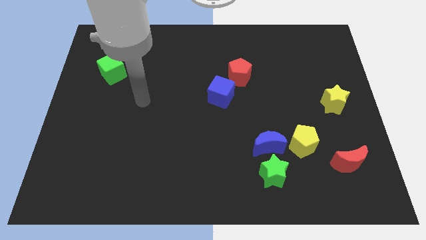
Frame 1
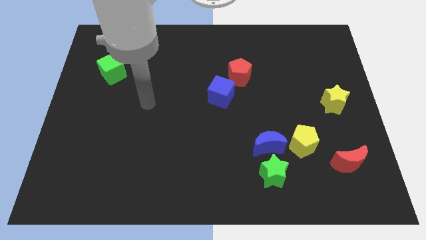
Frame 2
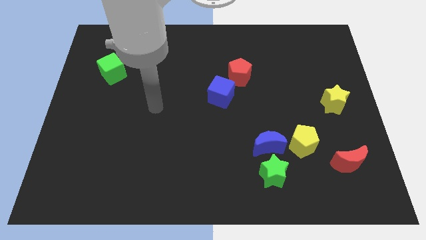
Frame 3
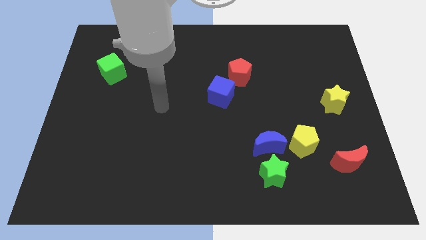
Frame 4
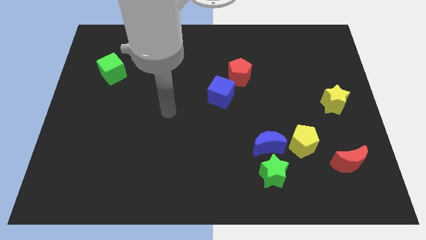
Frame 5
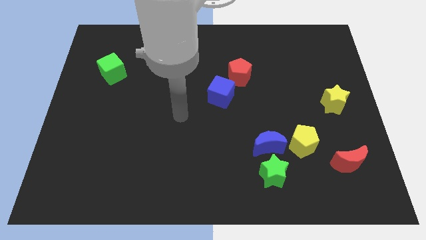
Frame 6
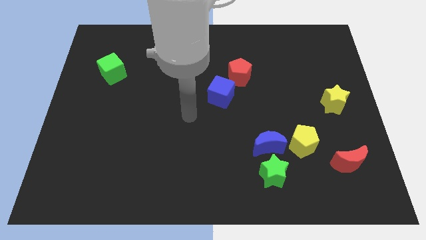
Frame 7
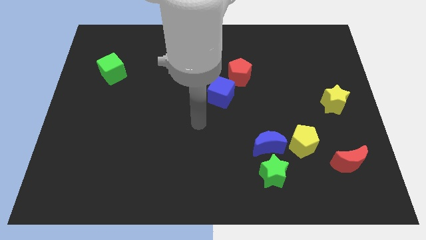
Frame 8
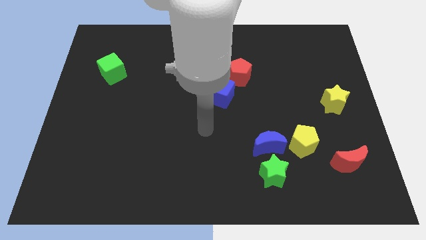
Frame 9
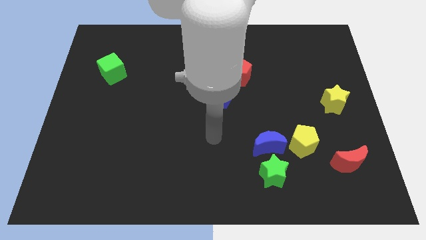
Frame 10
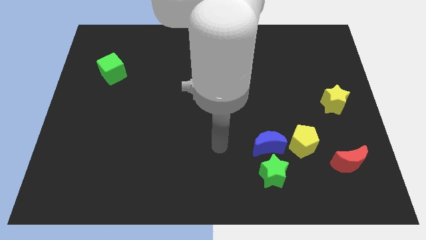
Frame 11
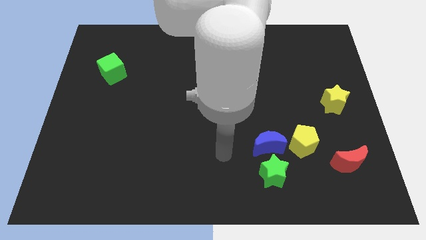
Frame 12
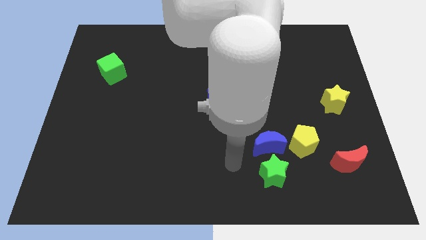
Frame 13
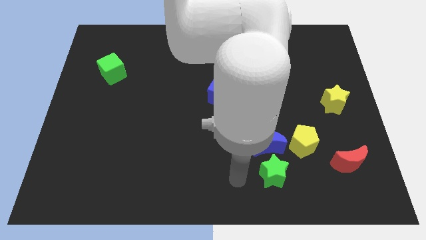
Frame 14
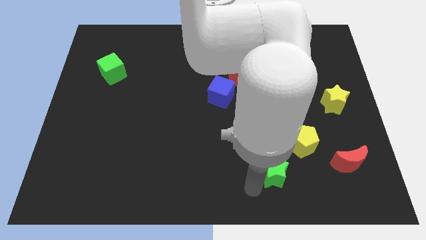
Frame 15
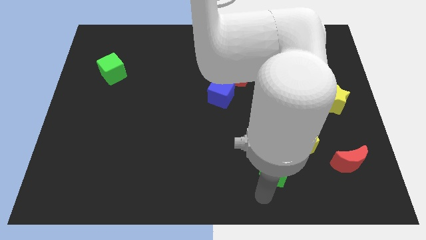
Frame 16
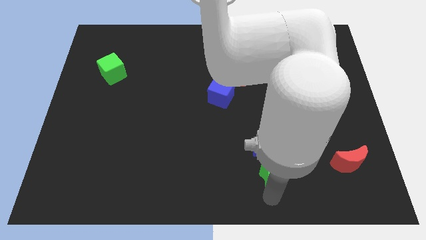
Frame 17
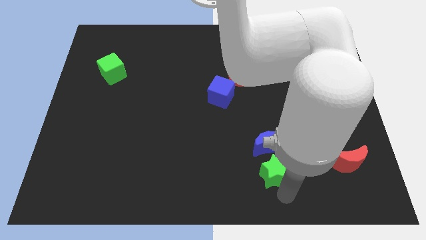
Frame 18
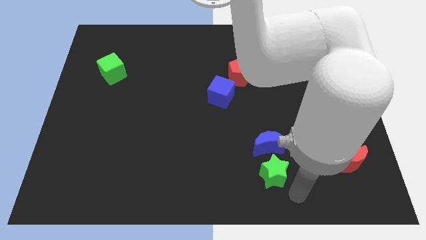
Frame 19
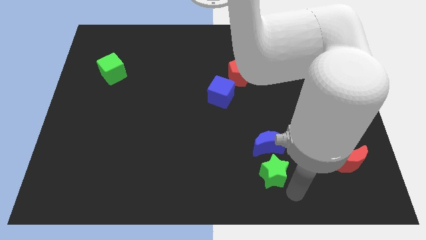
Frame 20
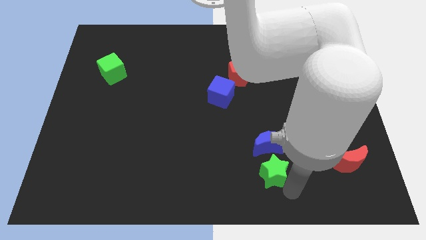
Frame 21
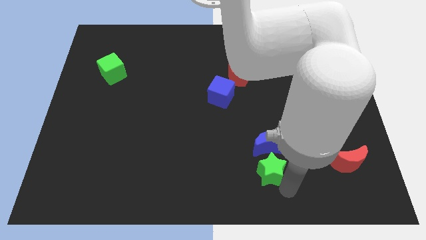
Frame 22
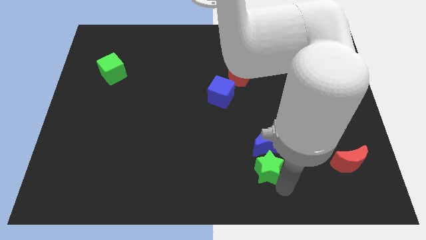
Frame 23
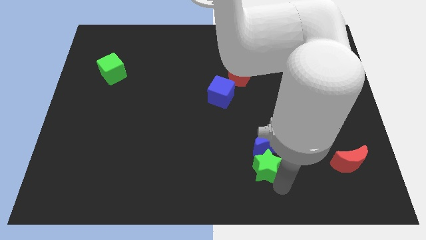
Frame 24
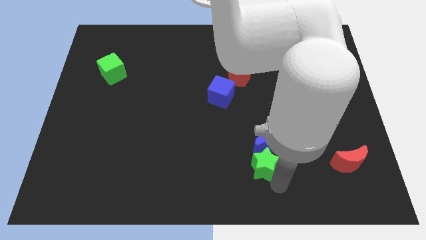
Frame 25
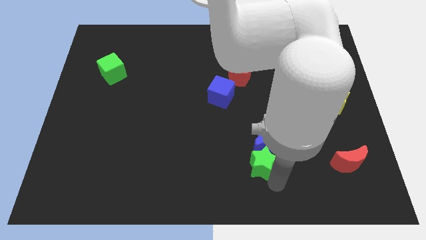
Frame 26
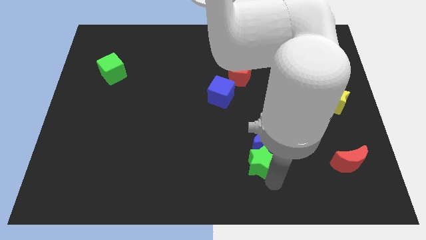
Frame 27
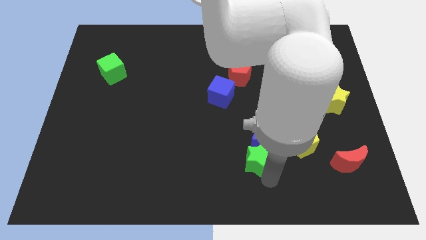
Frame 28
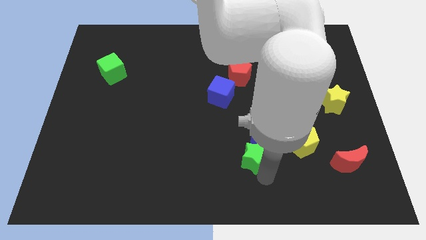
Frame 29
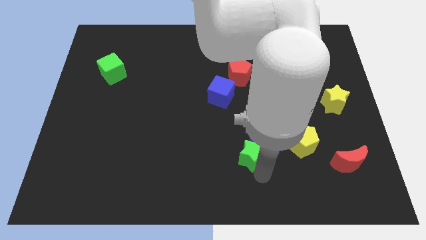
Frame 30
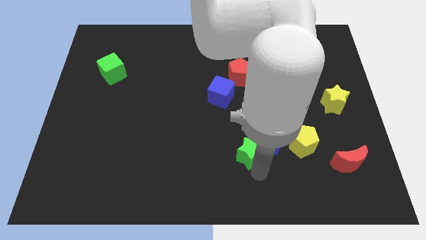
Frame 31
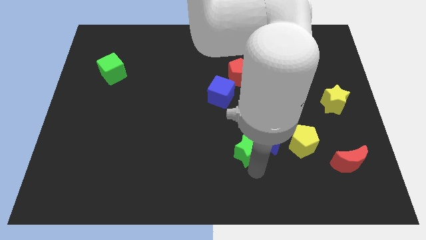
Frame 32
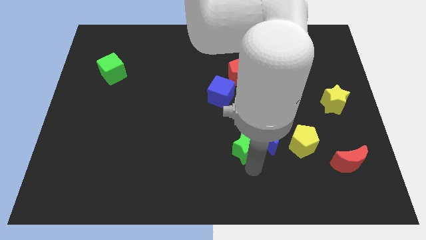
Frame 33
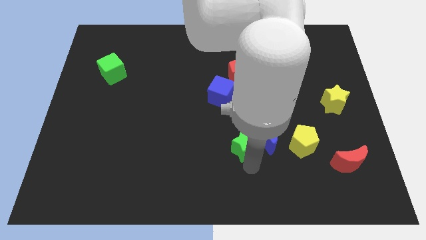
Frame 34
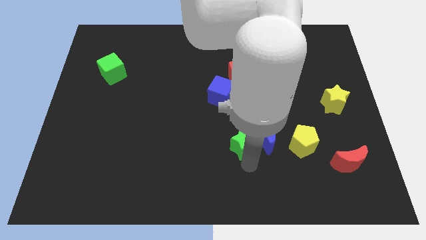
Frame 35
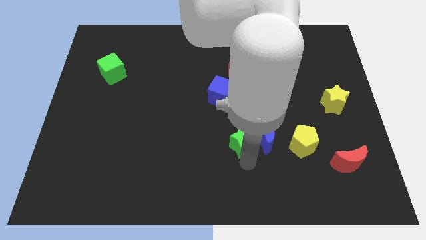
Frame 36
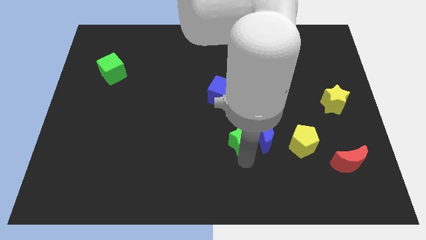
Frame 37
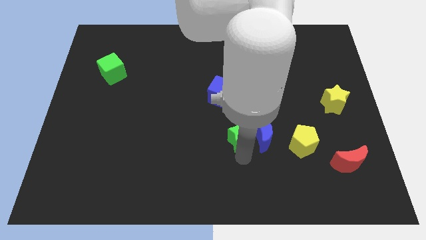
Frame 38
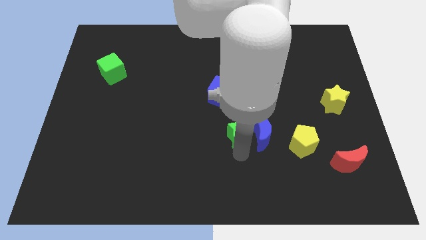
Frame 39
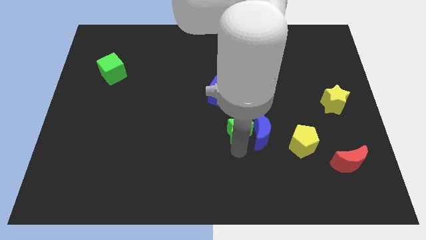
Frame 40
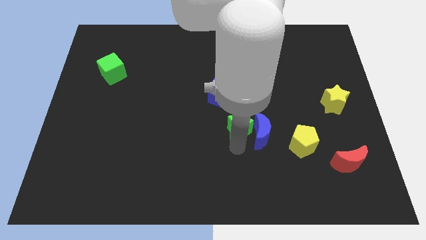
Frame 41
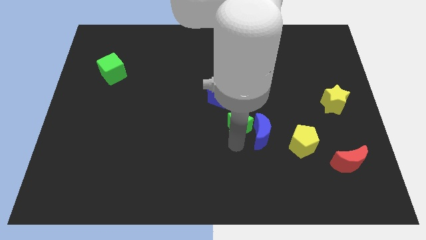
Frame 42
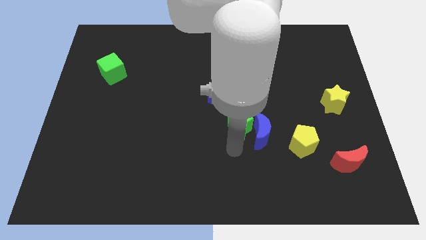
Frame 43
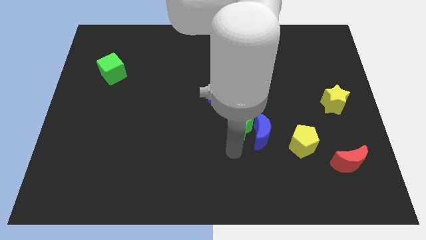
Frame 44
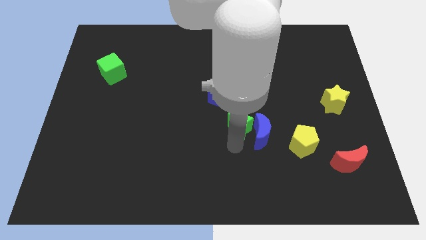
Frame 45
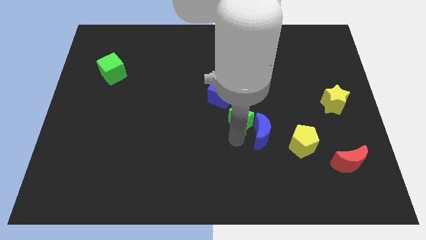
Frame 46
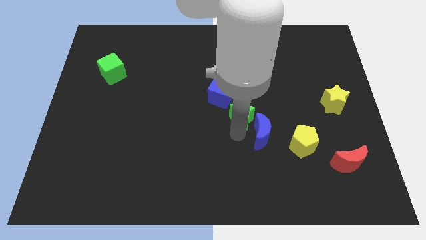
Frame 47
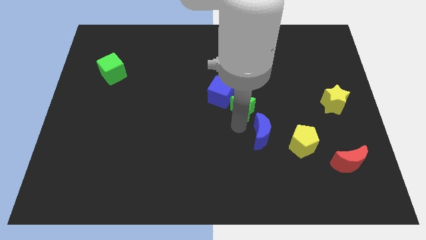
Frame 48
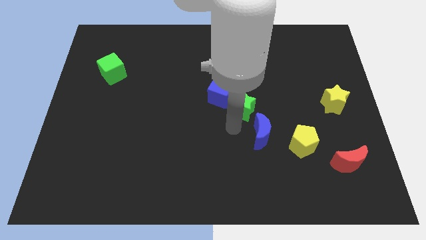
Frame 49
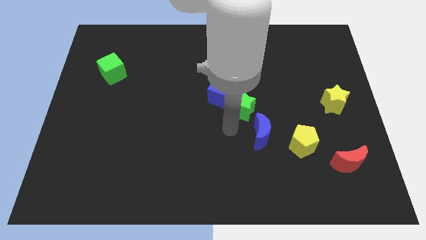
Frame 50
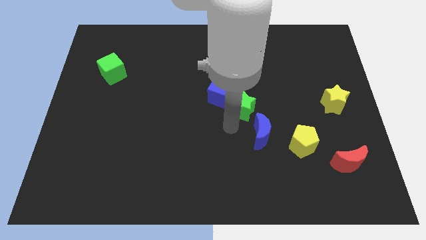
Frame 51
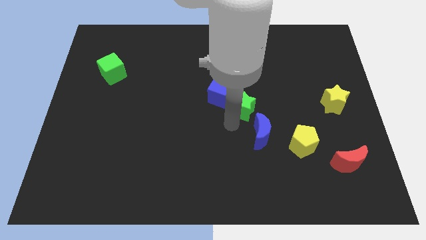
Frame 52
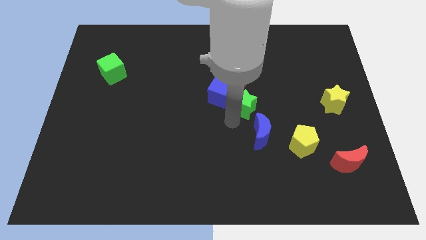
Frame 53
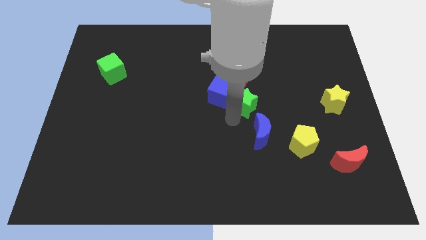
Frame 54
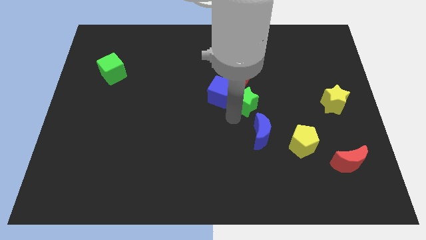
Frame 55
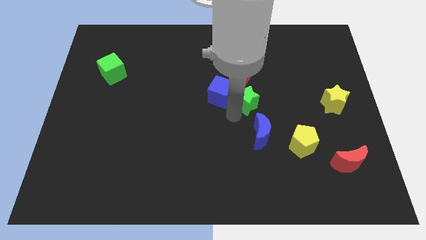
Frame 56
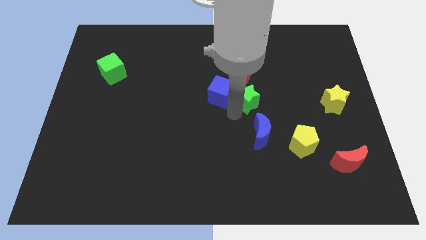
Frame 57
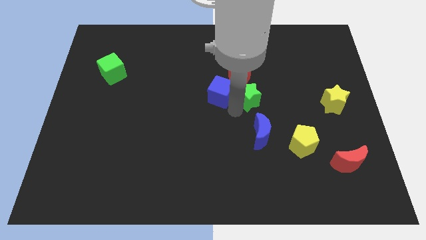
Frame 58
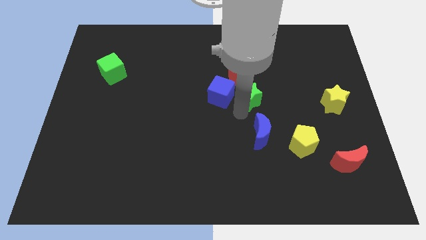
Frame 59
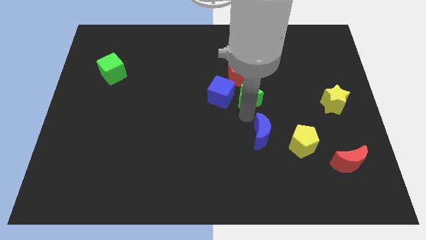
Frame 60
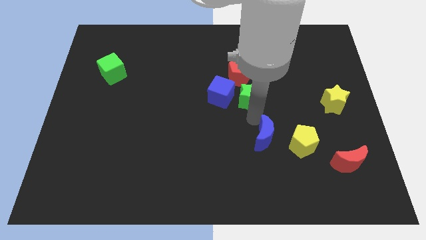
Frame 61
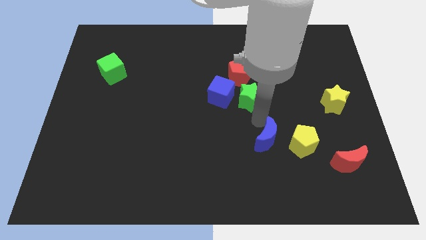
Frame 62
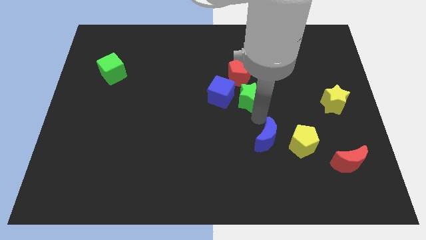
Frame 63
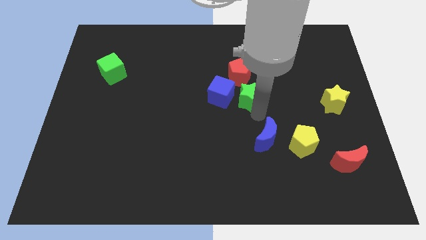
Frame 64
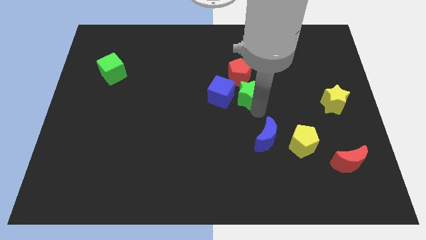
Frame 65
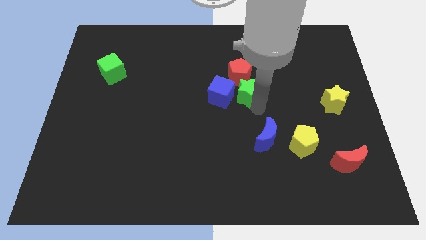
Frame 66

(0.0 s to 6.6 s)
slide the green star to the red pentagon

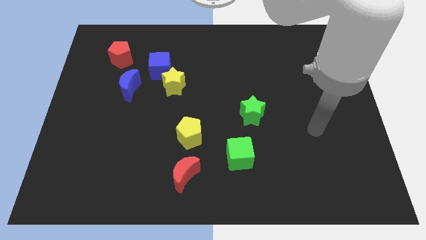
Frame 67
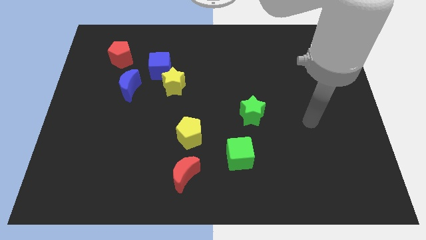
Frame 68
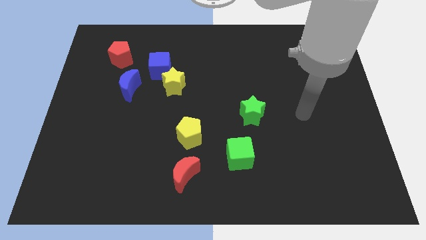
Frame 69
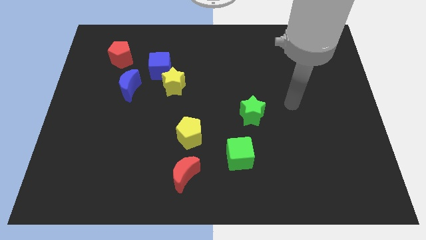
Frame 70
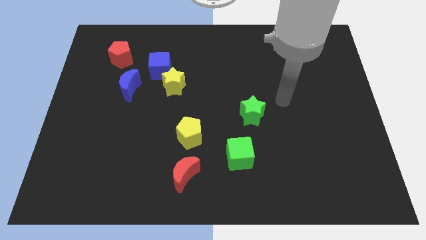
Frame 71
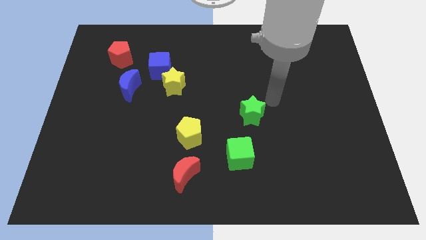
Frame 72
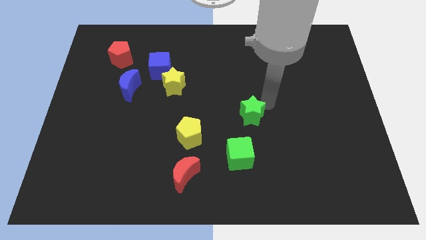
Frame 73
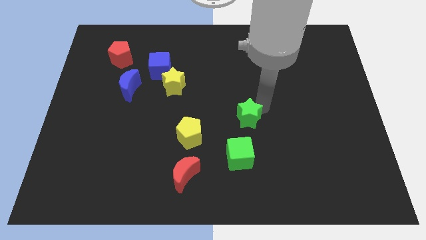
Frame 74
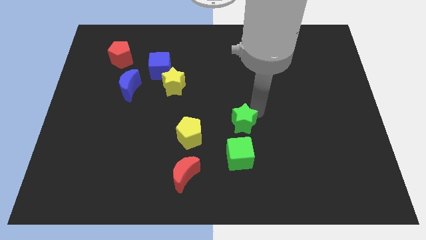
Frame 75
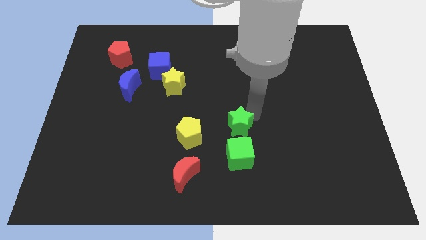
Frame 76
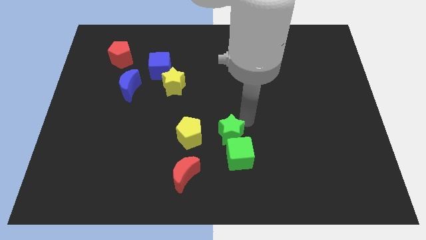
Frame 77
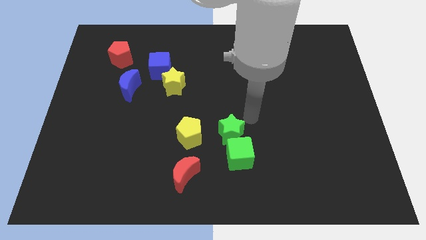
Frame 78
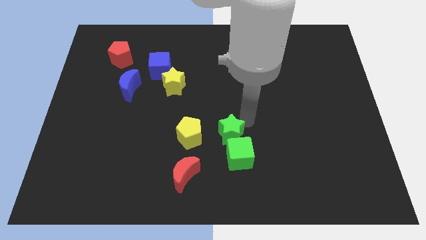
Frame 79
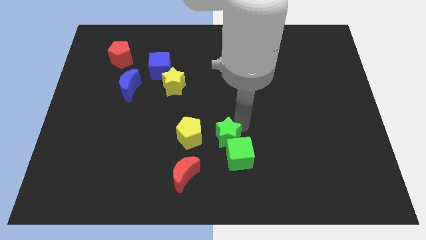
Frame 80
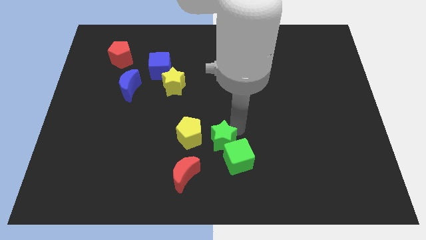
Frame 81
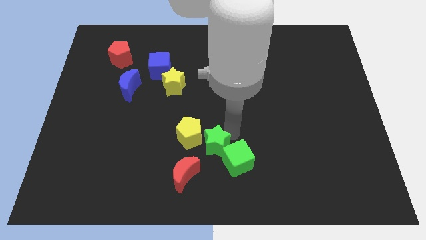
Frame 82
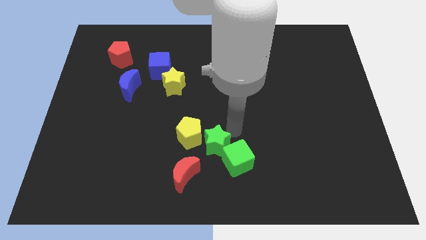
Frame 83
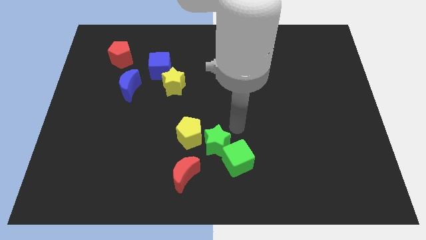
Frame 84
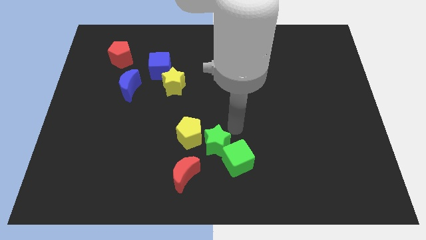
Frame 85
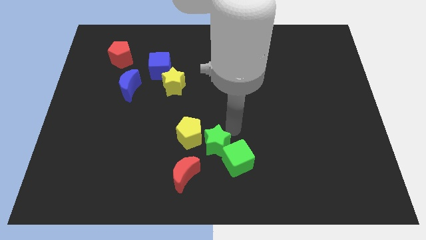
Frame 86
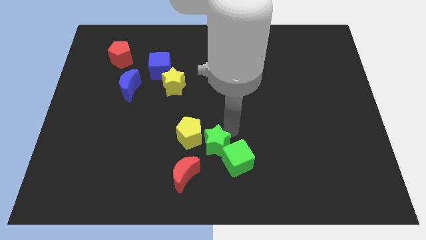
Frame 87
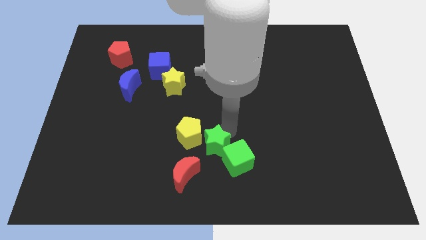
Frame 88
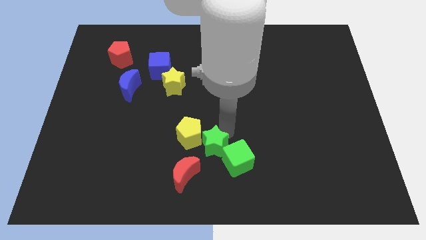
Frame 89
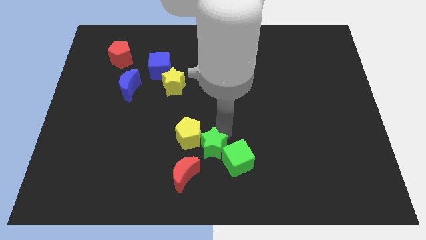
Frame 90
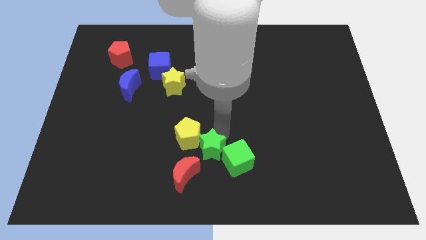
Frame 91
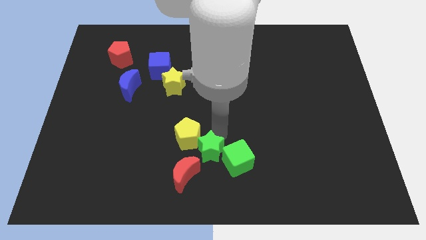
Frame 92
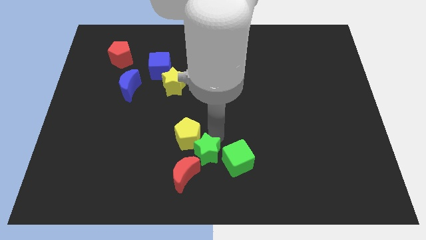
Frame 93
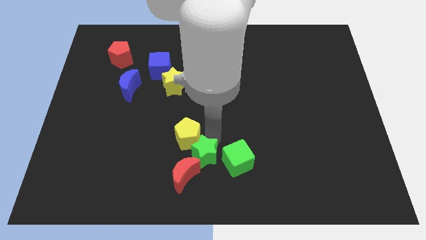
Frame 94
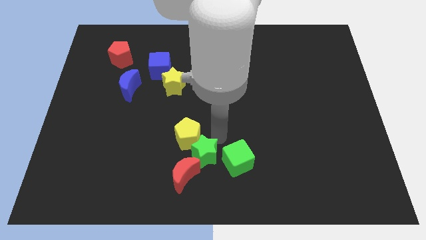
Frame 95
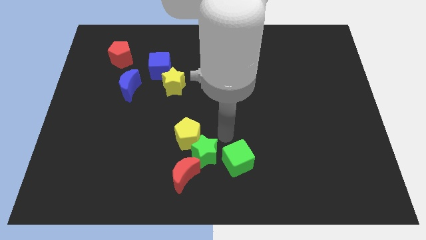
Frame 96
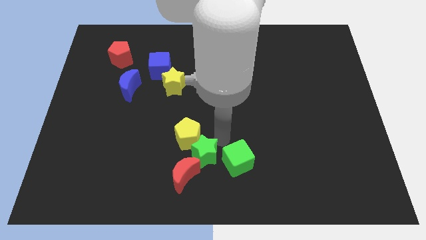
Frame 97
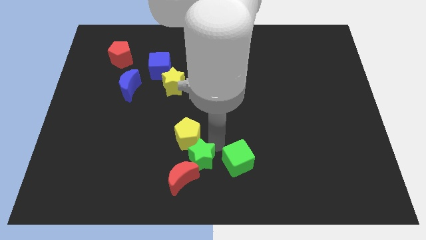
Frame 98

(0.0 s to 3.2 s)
push the green star next to the red moon
